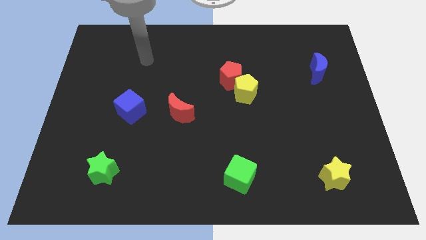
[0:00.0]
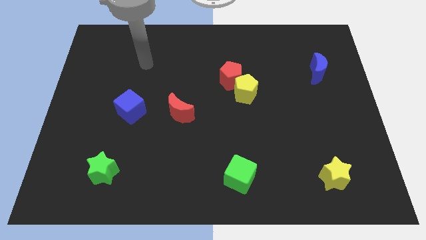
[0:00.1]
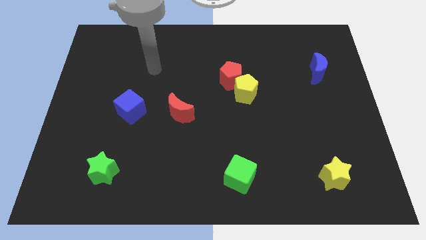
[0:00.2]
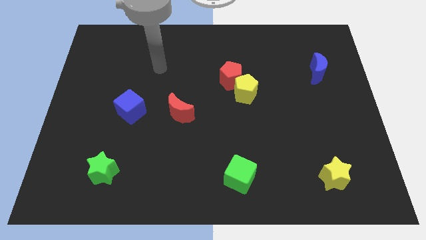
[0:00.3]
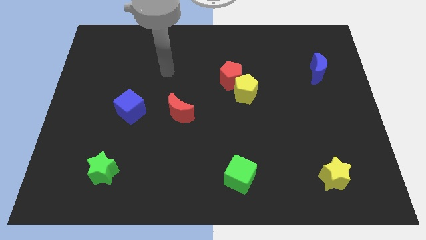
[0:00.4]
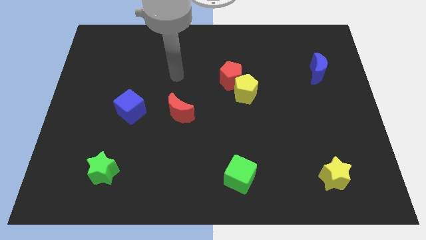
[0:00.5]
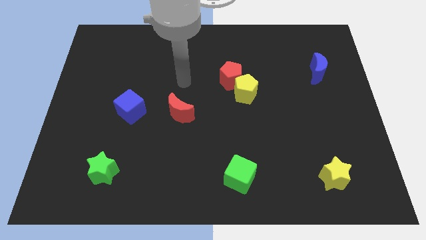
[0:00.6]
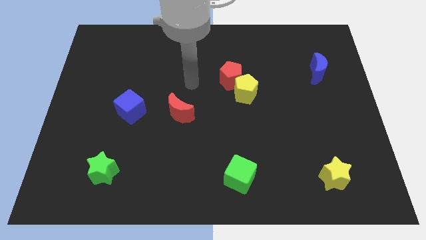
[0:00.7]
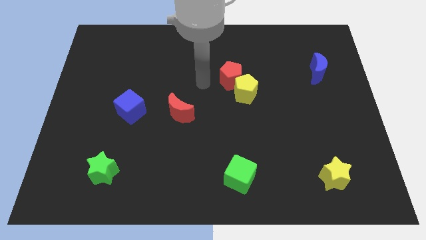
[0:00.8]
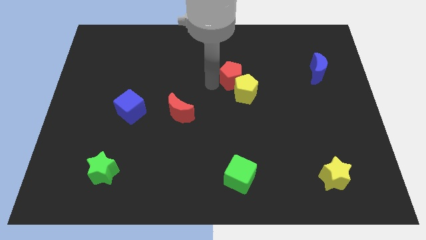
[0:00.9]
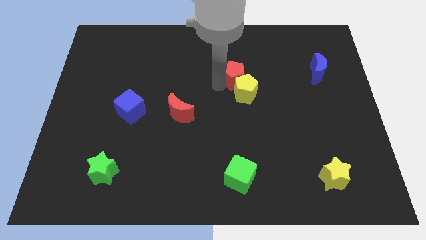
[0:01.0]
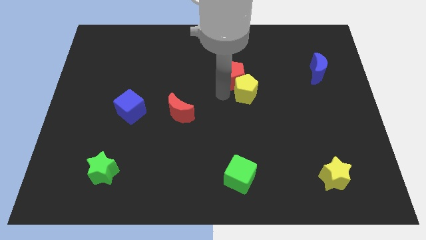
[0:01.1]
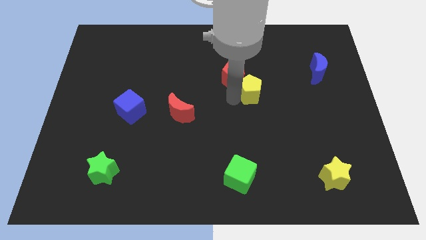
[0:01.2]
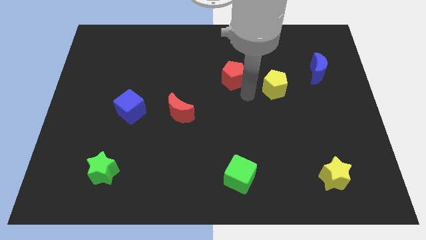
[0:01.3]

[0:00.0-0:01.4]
pull the red pentagon apart from the yellow pentagon

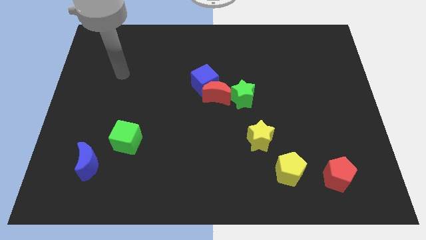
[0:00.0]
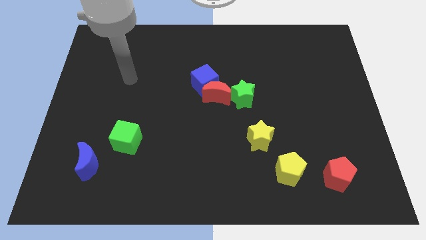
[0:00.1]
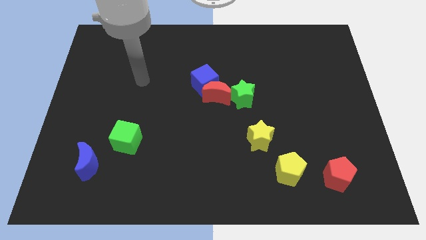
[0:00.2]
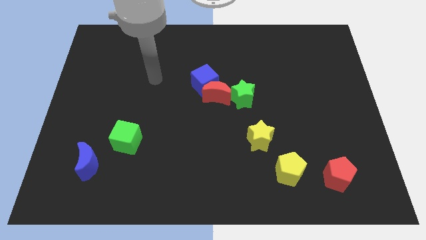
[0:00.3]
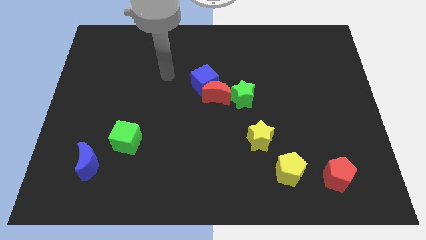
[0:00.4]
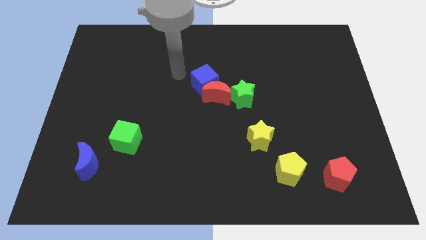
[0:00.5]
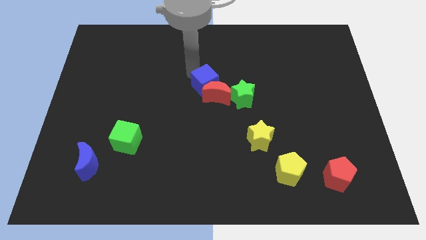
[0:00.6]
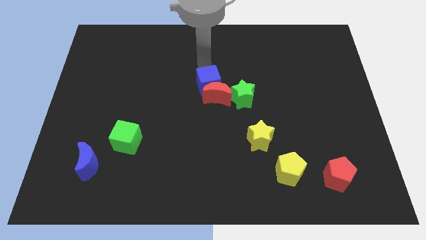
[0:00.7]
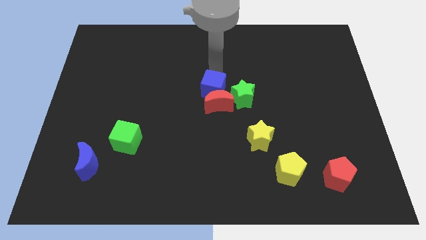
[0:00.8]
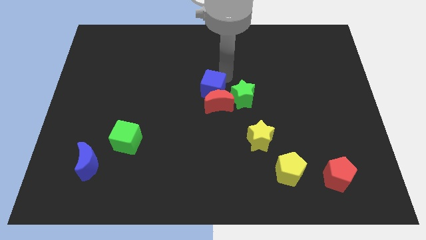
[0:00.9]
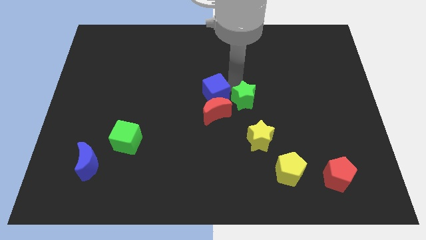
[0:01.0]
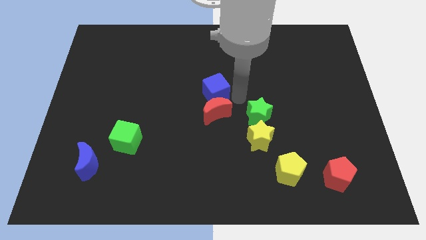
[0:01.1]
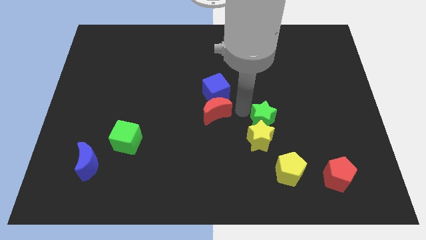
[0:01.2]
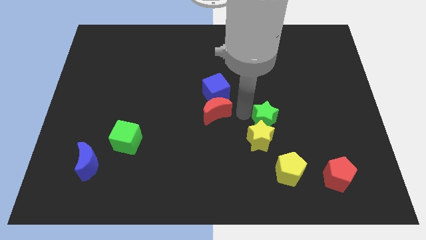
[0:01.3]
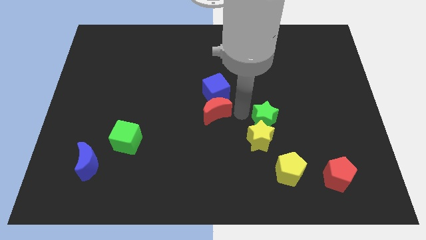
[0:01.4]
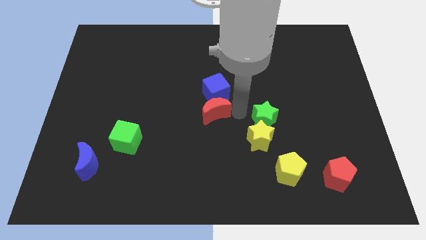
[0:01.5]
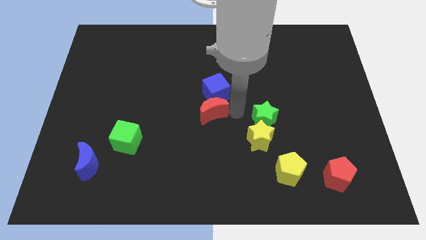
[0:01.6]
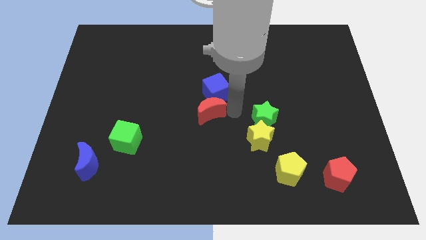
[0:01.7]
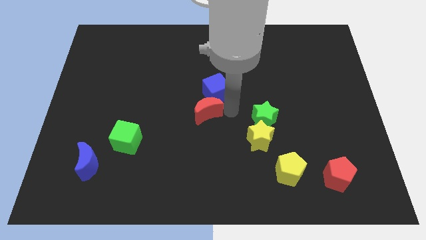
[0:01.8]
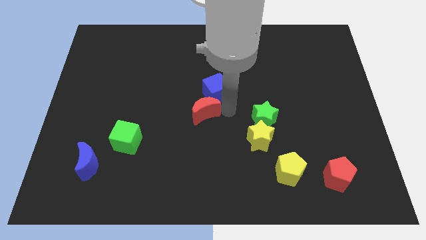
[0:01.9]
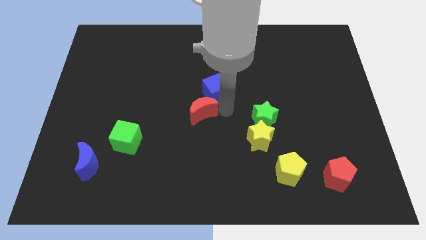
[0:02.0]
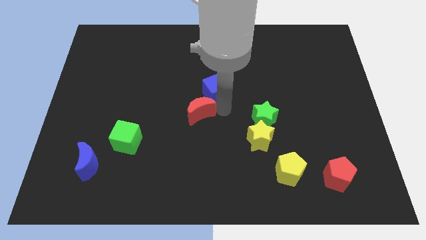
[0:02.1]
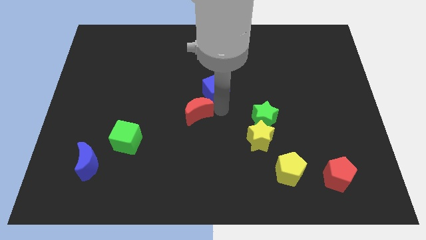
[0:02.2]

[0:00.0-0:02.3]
move the red moon away from the blue cube and green star

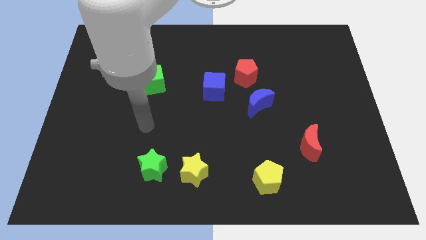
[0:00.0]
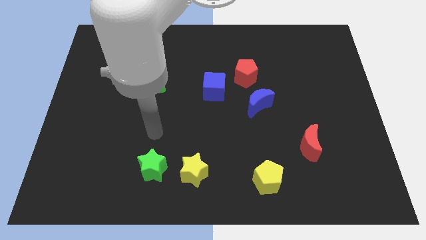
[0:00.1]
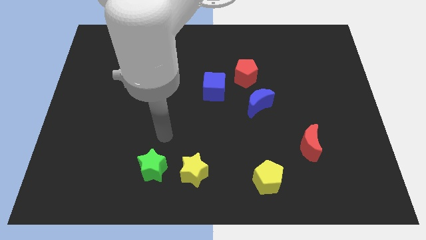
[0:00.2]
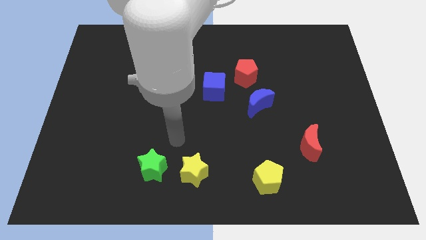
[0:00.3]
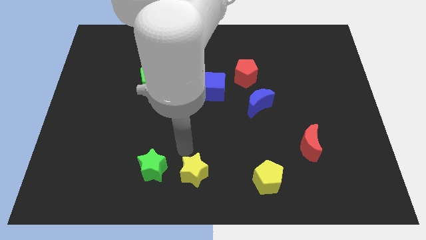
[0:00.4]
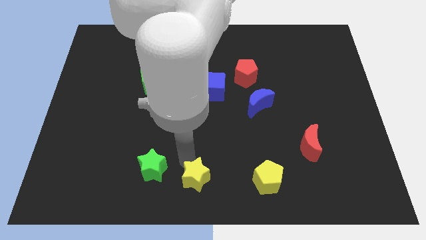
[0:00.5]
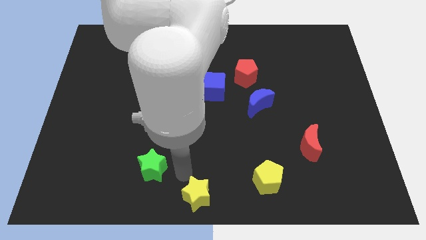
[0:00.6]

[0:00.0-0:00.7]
move the green star away from the yellow star

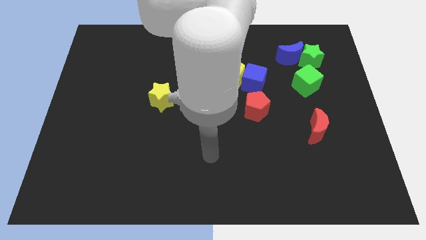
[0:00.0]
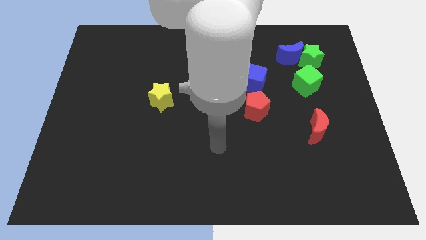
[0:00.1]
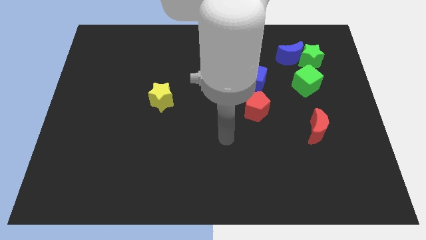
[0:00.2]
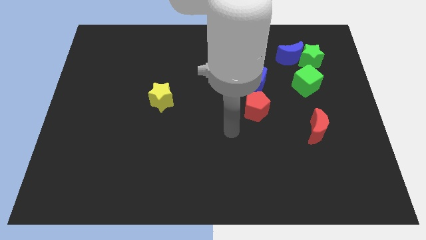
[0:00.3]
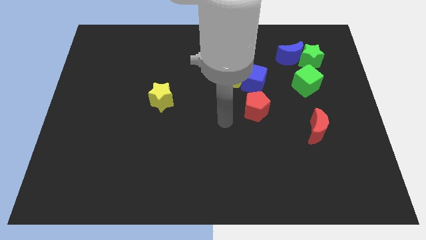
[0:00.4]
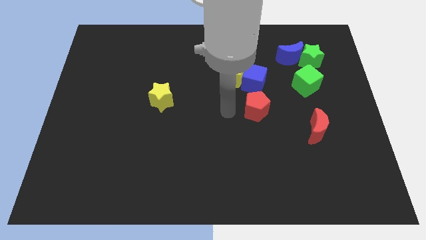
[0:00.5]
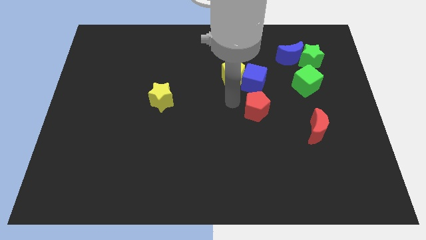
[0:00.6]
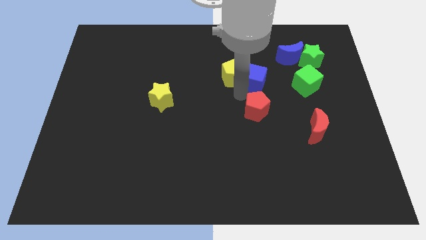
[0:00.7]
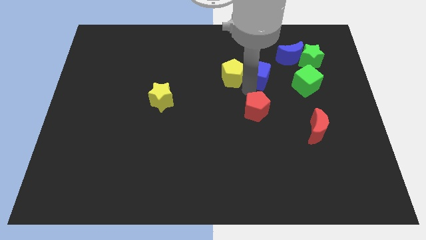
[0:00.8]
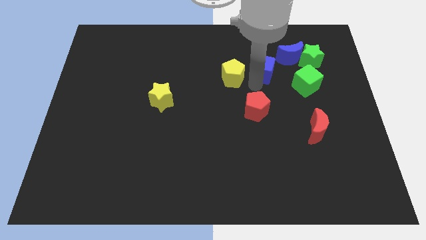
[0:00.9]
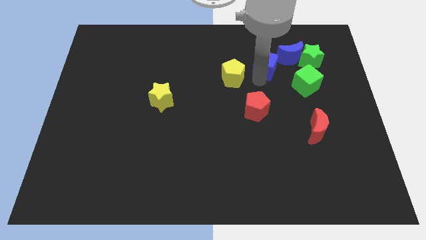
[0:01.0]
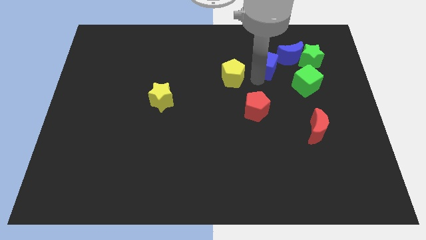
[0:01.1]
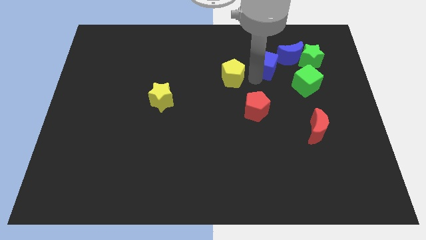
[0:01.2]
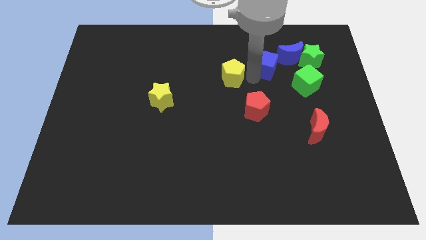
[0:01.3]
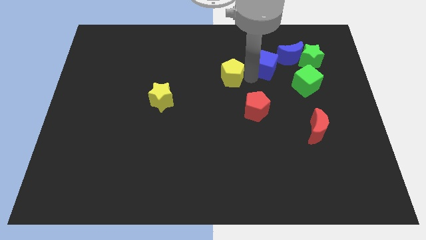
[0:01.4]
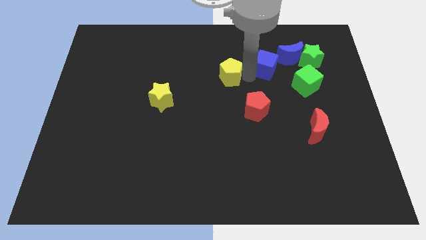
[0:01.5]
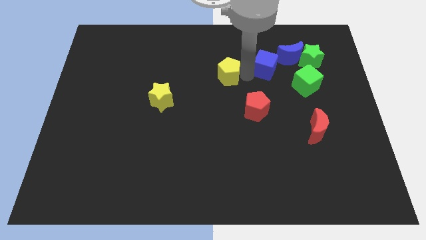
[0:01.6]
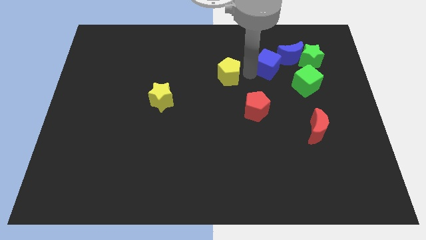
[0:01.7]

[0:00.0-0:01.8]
pull the yellow pentagon apart from the blue cube

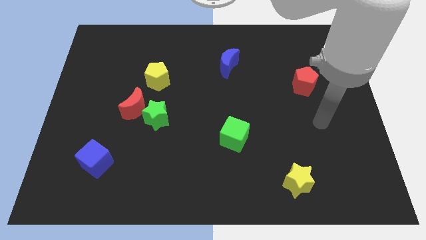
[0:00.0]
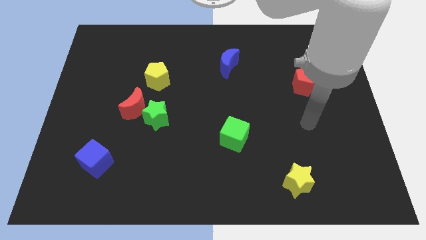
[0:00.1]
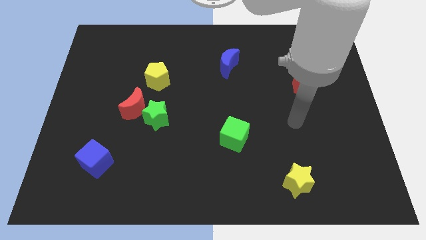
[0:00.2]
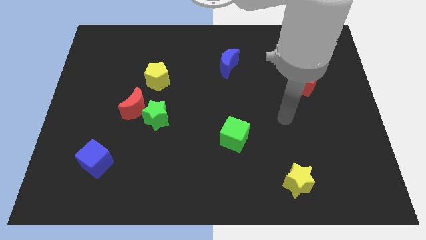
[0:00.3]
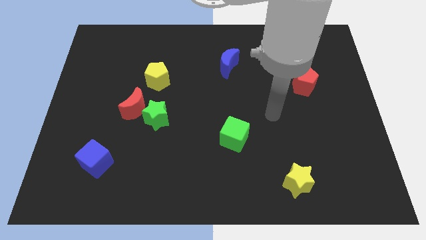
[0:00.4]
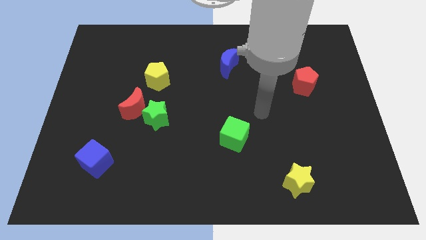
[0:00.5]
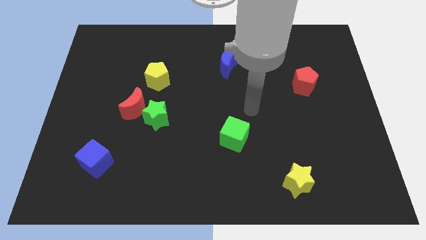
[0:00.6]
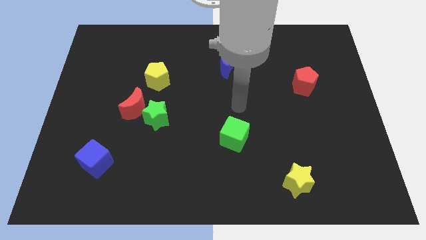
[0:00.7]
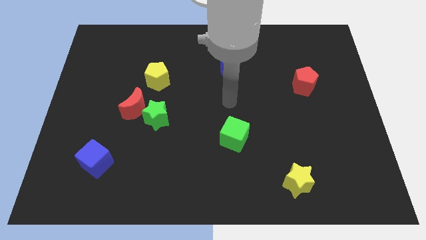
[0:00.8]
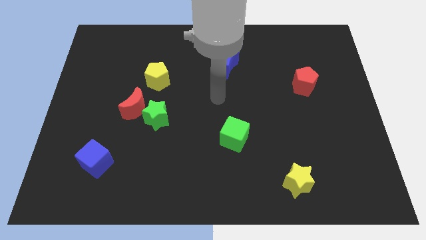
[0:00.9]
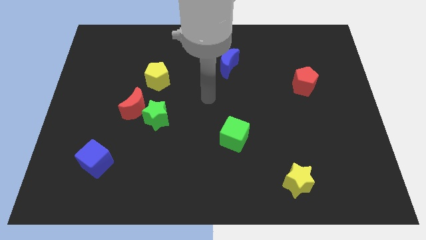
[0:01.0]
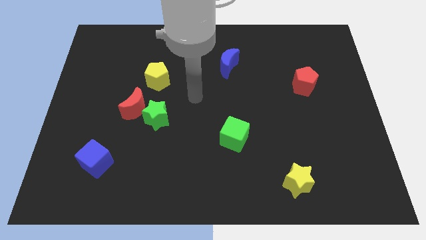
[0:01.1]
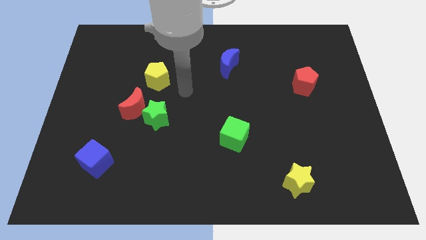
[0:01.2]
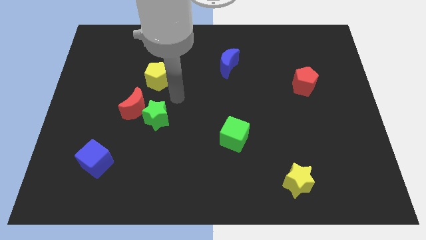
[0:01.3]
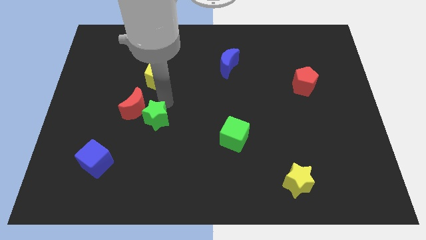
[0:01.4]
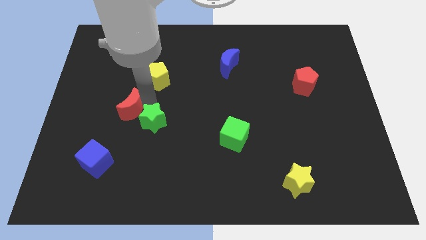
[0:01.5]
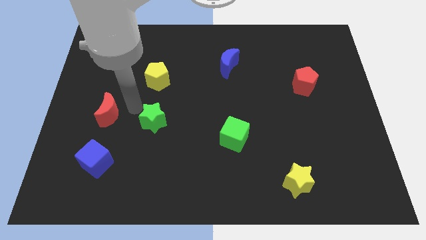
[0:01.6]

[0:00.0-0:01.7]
separate the green star from the red moon

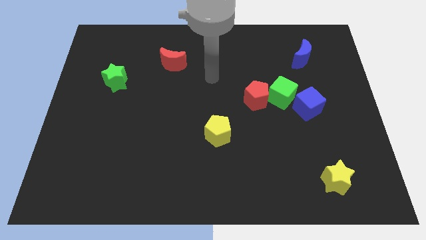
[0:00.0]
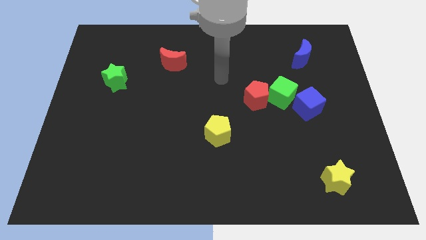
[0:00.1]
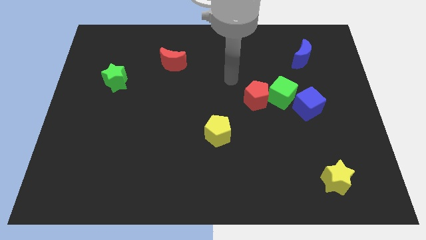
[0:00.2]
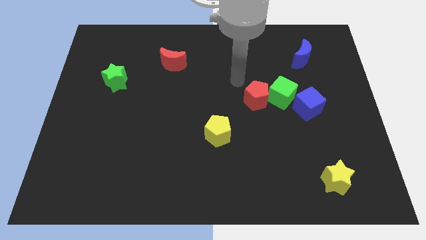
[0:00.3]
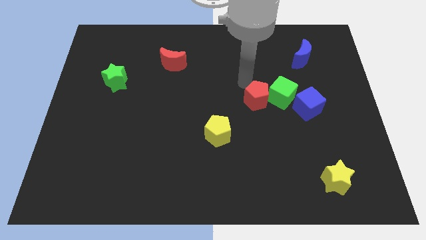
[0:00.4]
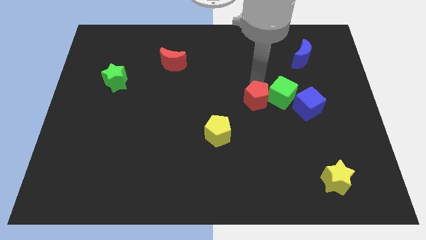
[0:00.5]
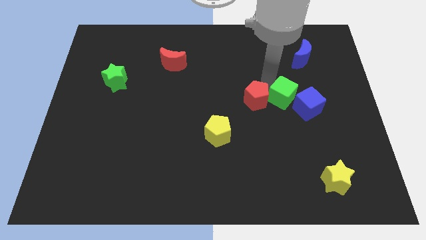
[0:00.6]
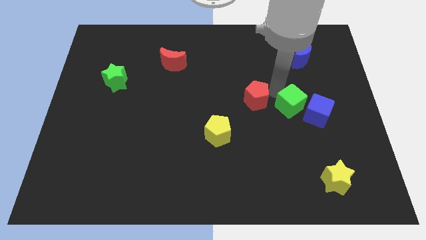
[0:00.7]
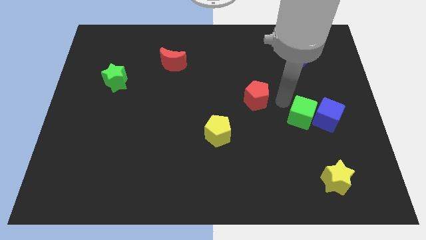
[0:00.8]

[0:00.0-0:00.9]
separate the red pentagon from the green cube

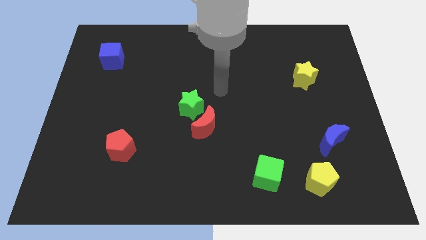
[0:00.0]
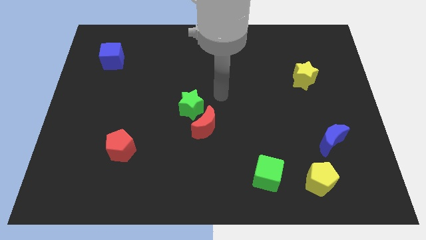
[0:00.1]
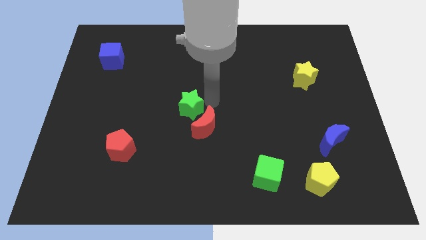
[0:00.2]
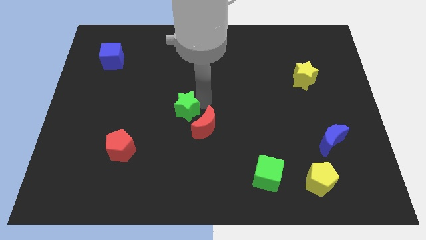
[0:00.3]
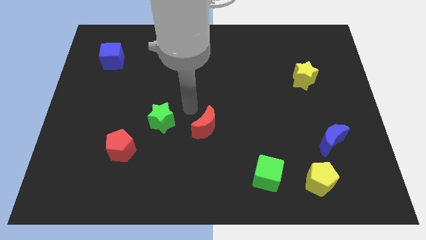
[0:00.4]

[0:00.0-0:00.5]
move the red moon away from the green star
